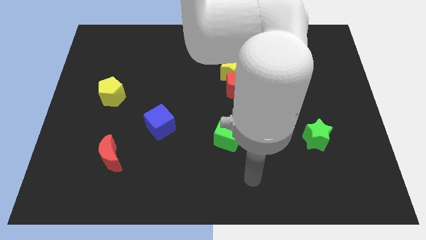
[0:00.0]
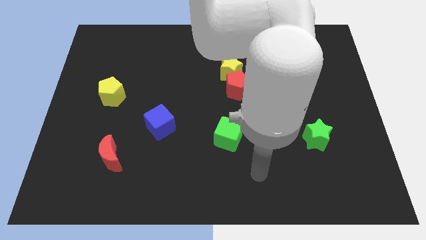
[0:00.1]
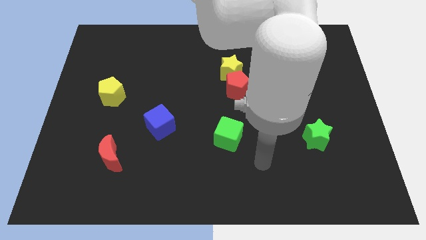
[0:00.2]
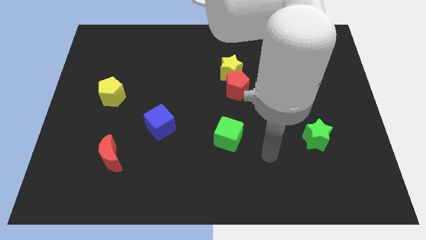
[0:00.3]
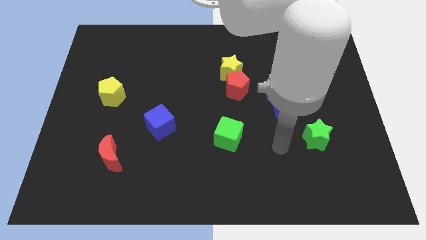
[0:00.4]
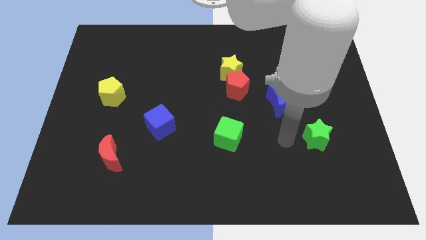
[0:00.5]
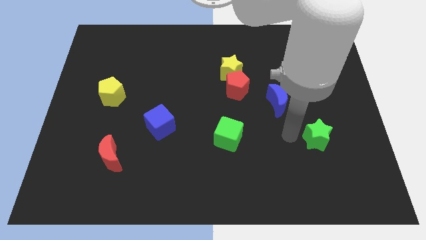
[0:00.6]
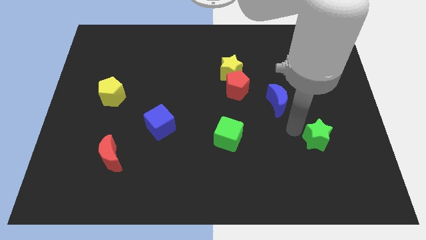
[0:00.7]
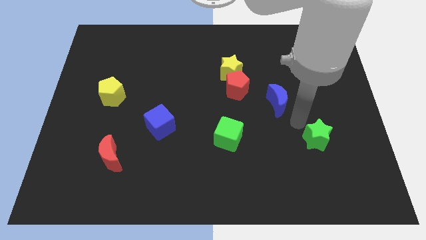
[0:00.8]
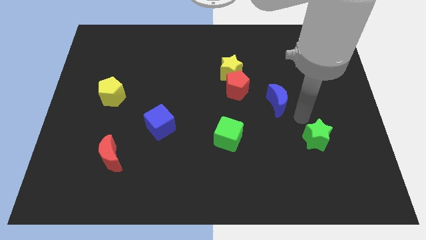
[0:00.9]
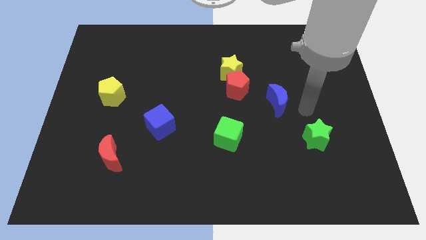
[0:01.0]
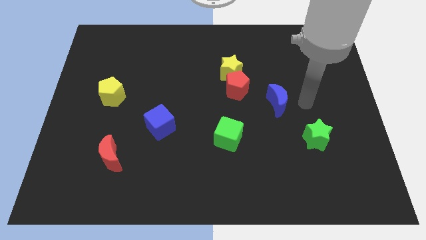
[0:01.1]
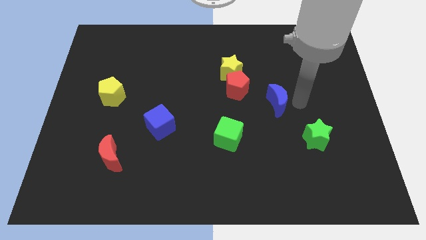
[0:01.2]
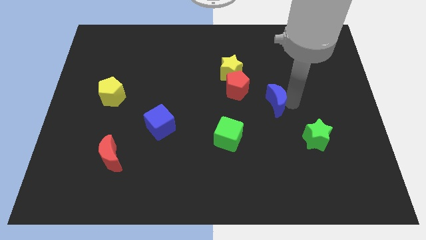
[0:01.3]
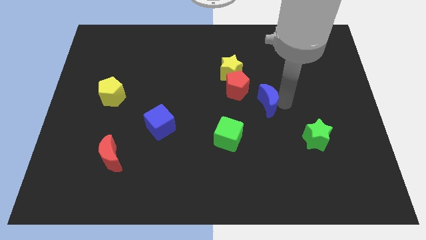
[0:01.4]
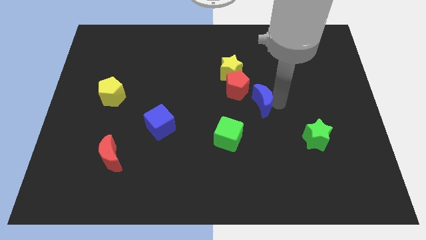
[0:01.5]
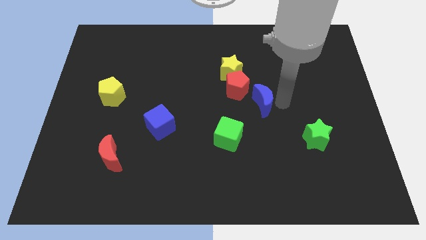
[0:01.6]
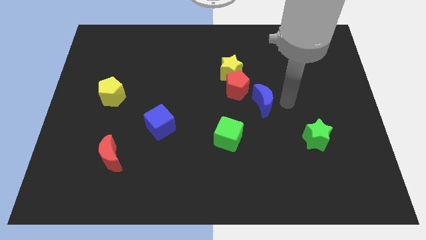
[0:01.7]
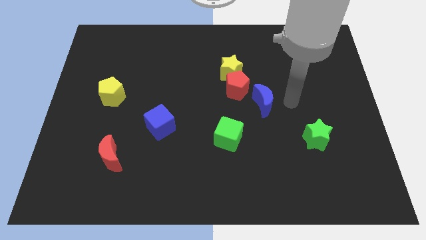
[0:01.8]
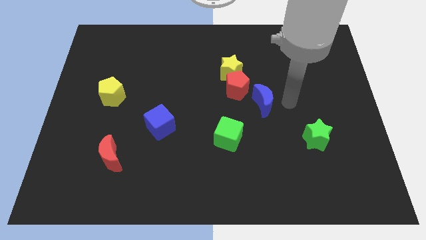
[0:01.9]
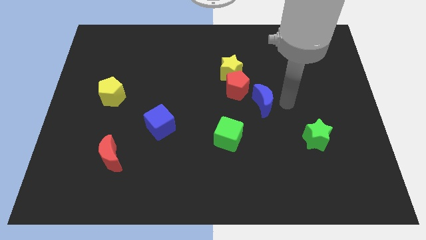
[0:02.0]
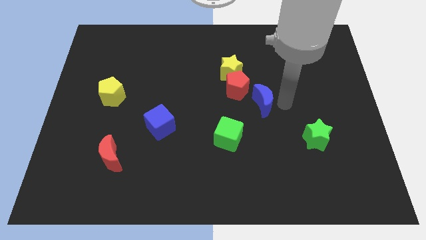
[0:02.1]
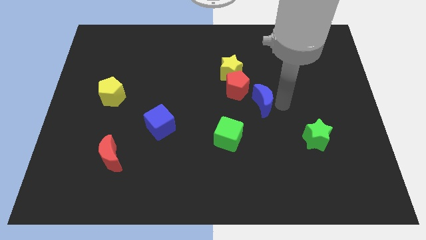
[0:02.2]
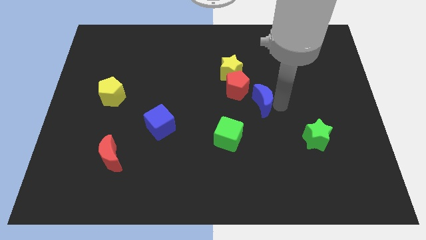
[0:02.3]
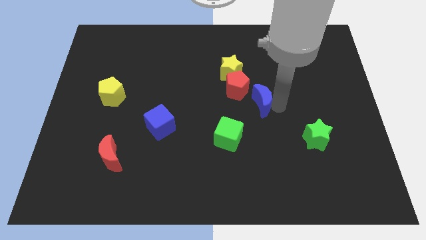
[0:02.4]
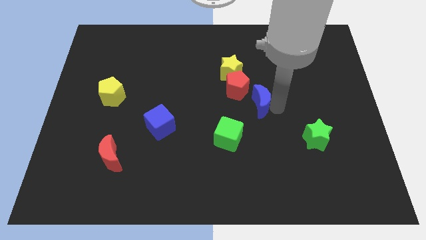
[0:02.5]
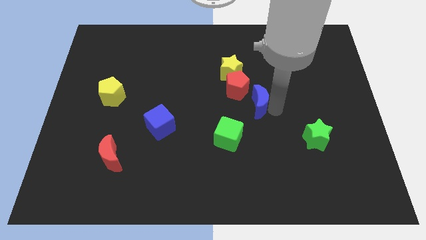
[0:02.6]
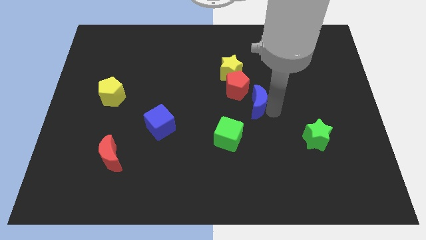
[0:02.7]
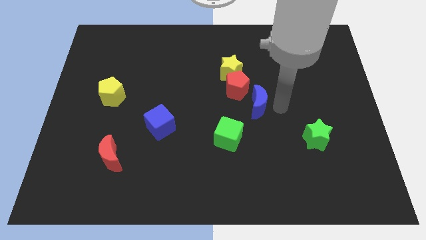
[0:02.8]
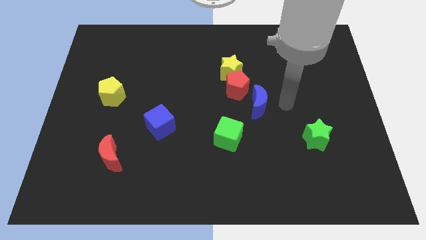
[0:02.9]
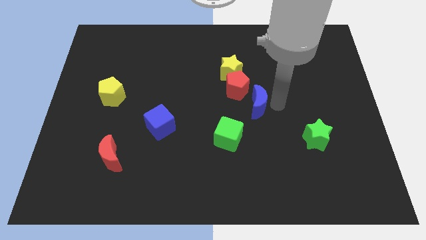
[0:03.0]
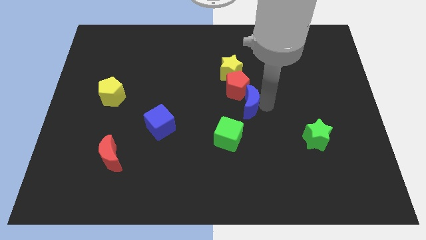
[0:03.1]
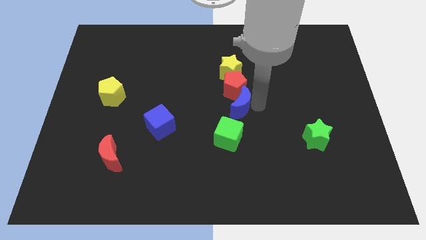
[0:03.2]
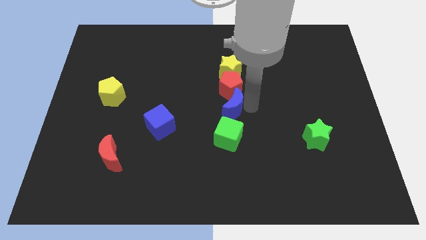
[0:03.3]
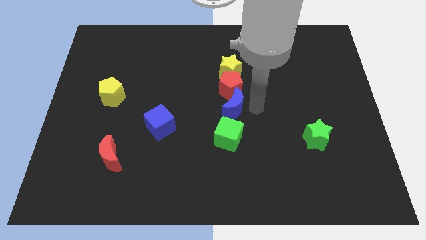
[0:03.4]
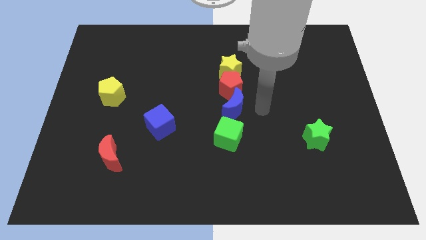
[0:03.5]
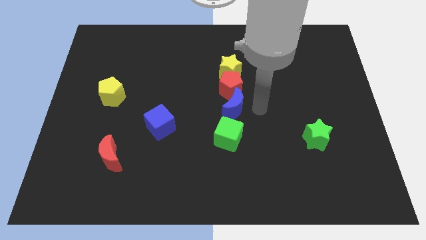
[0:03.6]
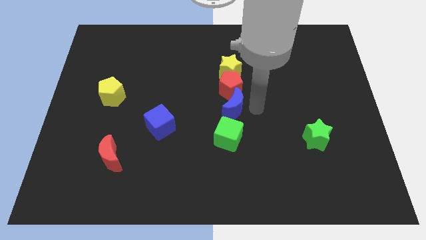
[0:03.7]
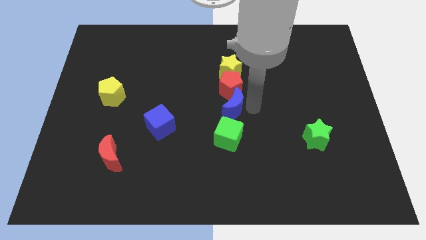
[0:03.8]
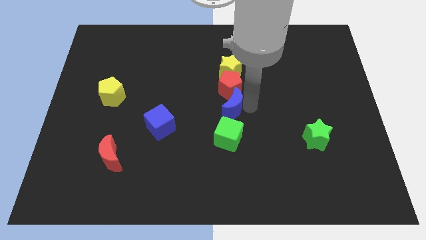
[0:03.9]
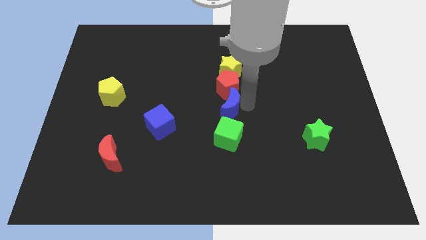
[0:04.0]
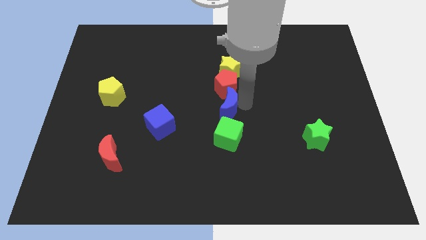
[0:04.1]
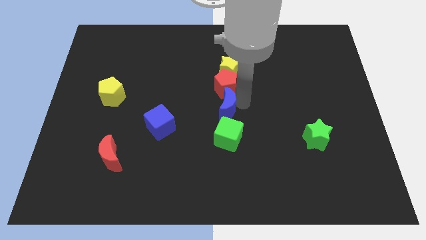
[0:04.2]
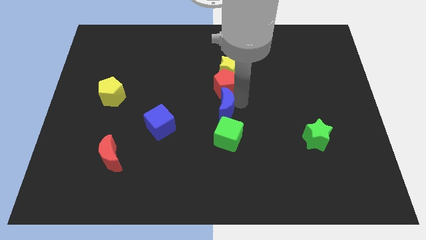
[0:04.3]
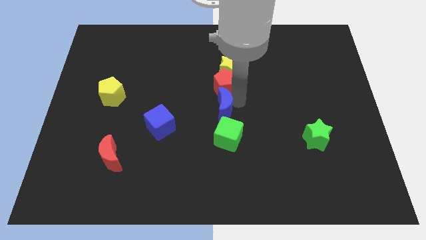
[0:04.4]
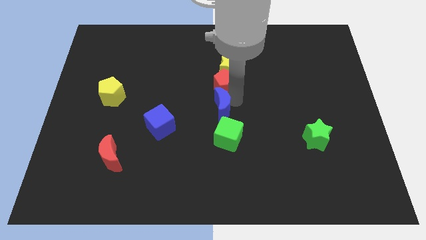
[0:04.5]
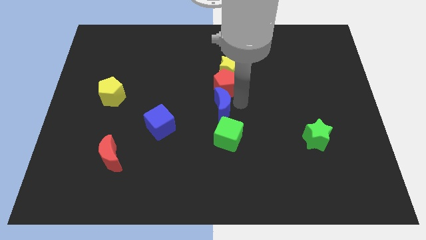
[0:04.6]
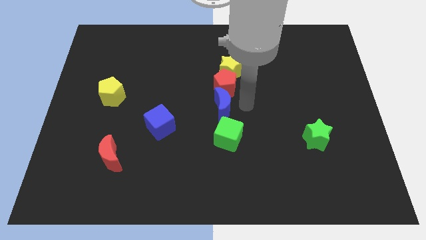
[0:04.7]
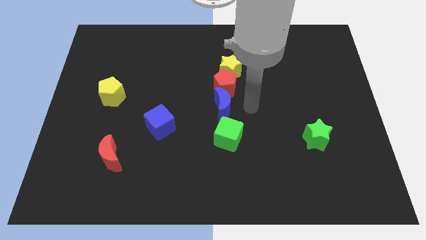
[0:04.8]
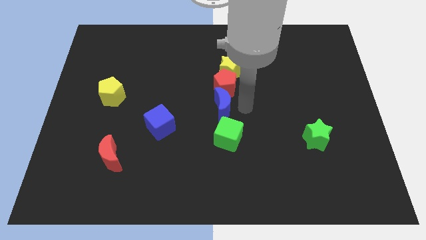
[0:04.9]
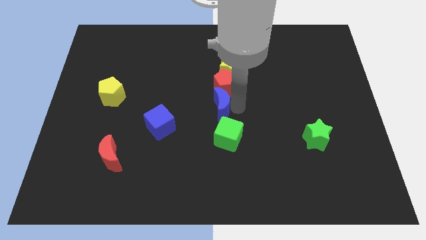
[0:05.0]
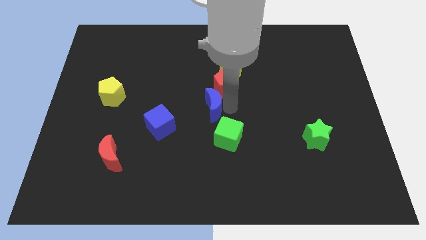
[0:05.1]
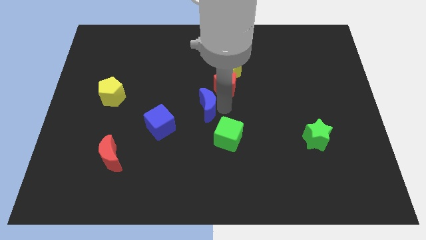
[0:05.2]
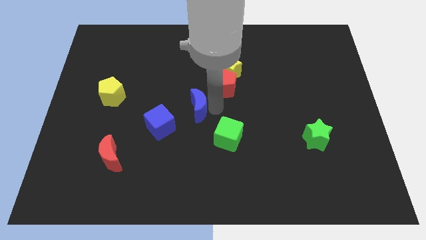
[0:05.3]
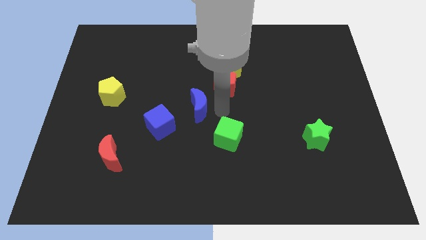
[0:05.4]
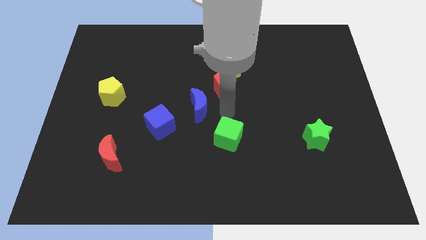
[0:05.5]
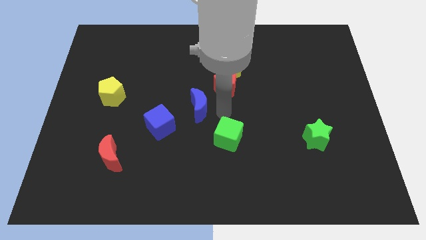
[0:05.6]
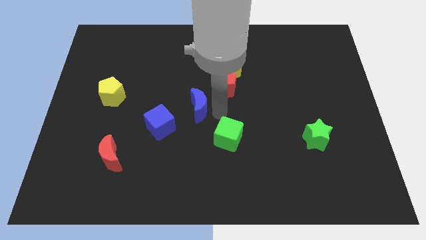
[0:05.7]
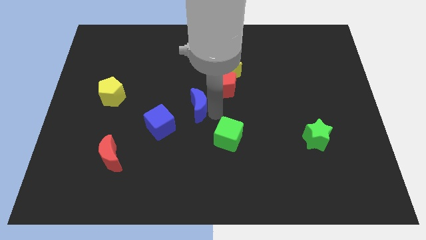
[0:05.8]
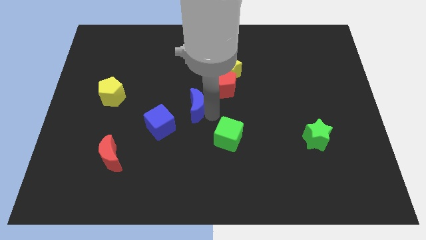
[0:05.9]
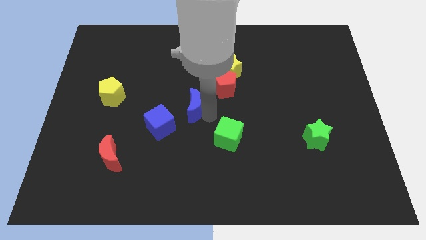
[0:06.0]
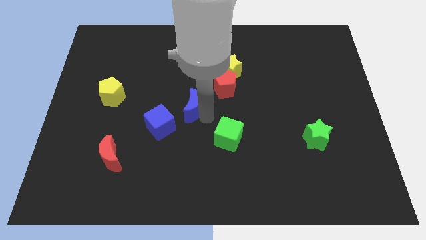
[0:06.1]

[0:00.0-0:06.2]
slide the blue moon to the left

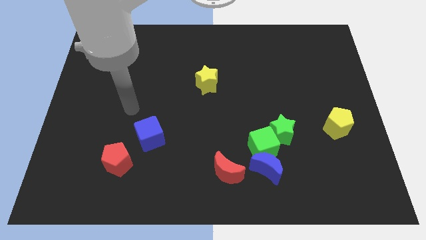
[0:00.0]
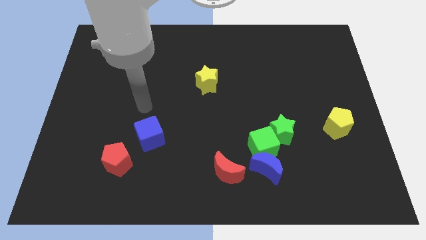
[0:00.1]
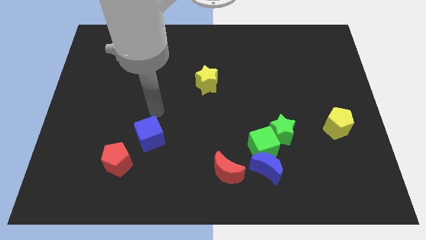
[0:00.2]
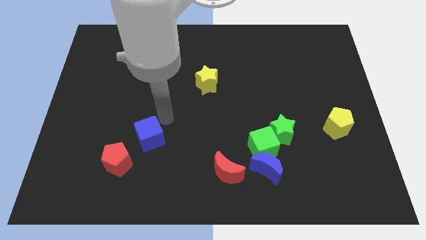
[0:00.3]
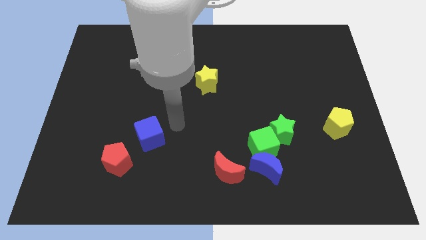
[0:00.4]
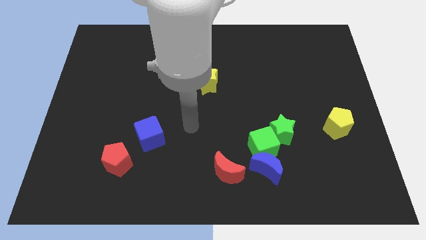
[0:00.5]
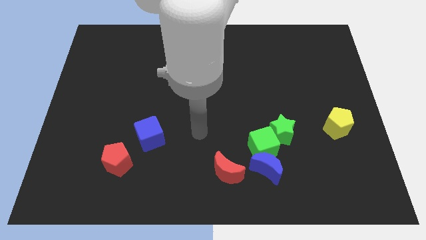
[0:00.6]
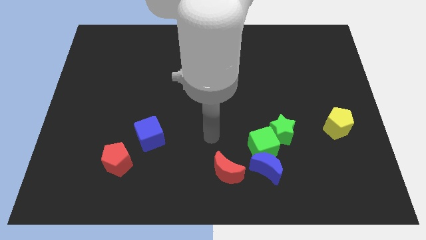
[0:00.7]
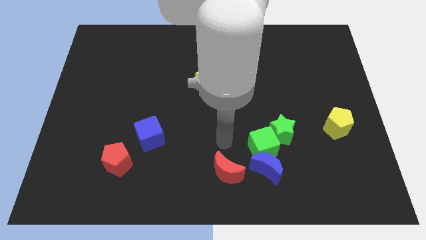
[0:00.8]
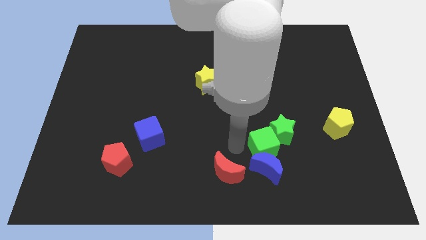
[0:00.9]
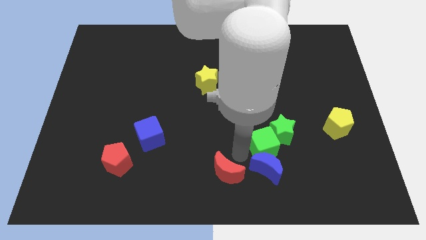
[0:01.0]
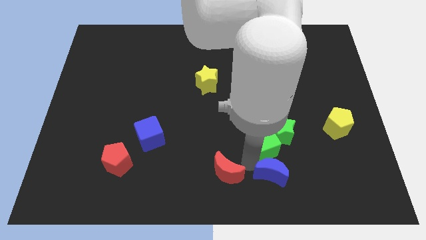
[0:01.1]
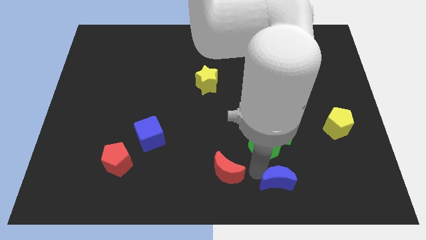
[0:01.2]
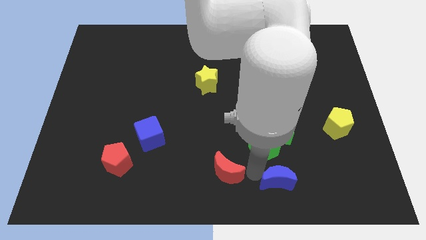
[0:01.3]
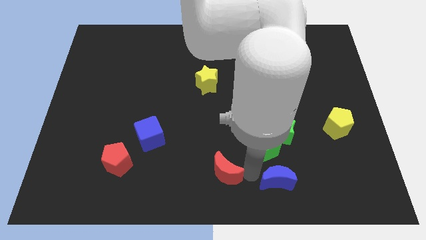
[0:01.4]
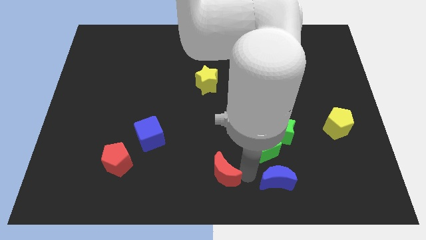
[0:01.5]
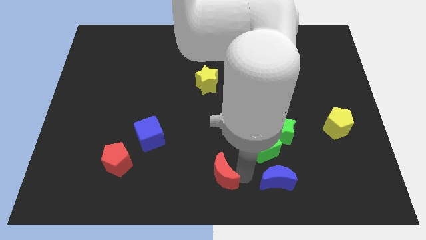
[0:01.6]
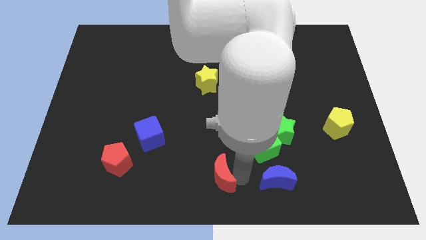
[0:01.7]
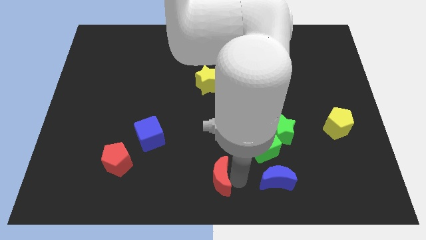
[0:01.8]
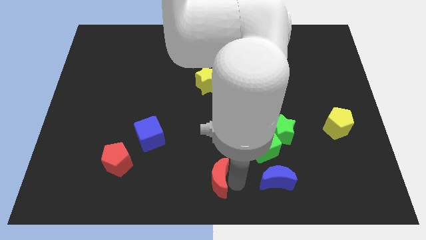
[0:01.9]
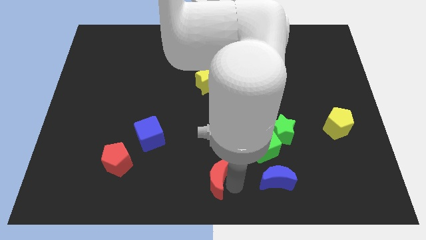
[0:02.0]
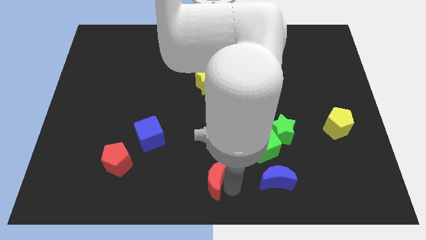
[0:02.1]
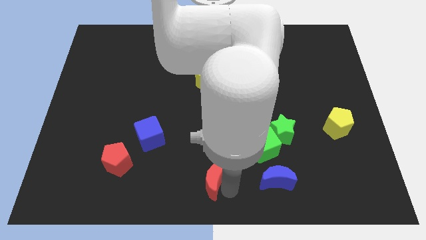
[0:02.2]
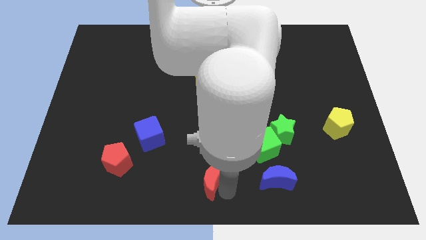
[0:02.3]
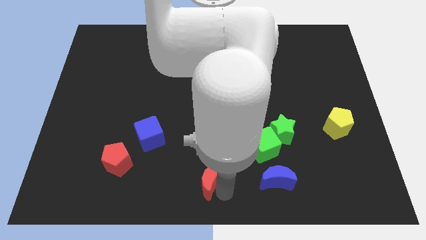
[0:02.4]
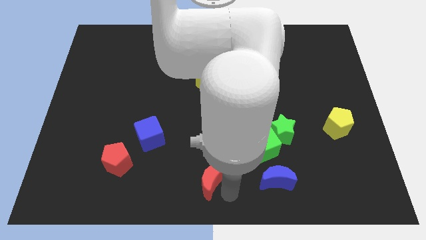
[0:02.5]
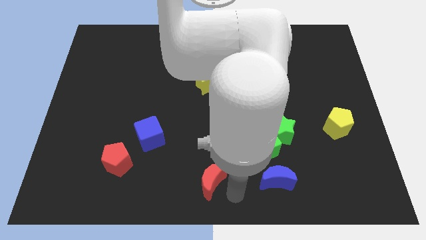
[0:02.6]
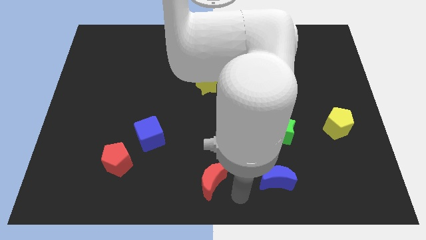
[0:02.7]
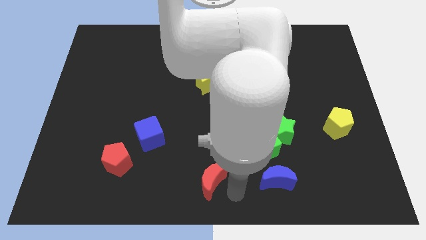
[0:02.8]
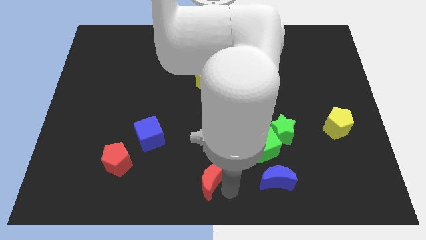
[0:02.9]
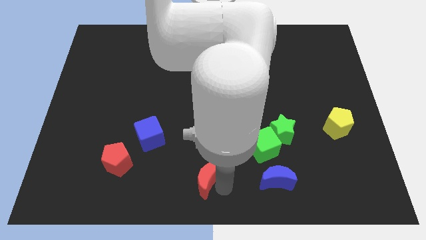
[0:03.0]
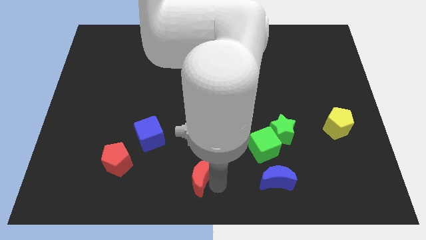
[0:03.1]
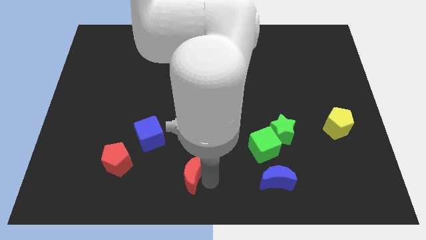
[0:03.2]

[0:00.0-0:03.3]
push the red moon slightly to the left
